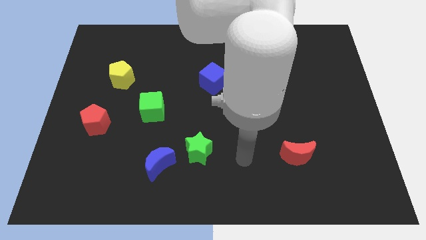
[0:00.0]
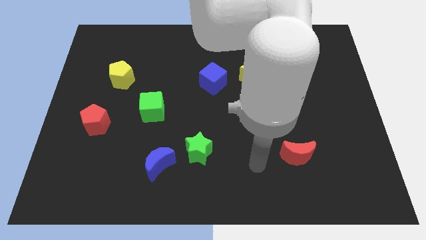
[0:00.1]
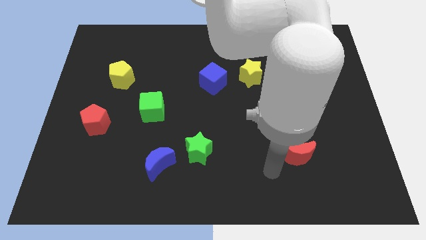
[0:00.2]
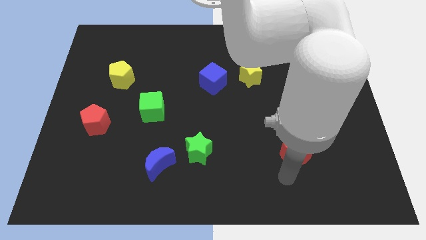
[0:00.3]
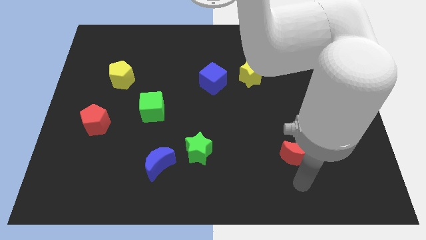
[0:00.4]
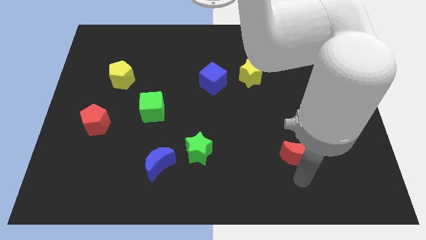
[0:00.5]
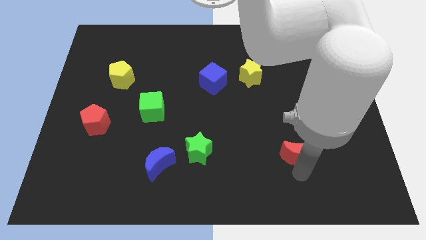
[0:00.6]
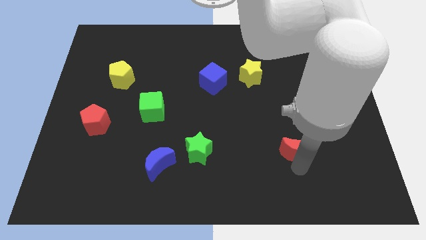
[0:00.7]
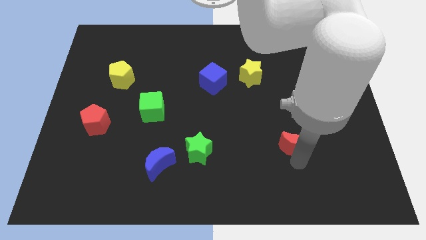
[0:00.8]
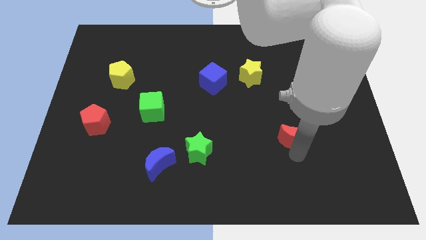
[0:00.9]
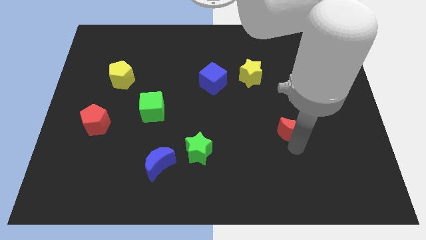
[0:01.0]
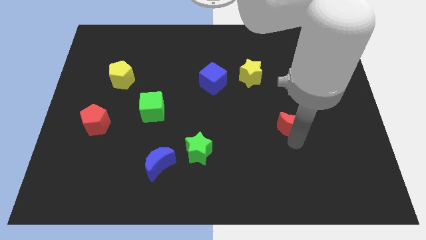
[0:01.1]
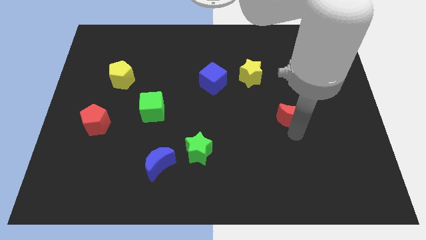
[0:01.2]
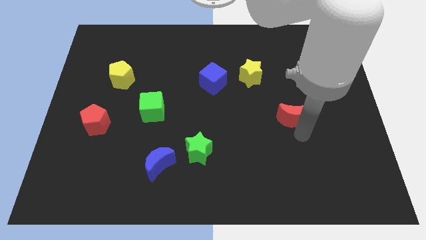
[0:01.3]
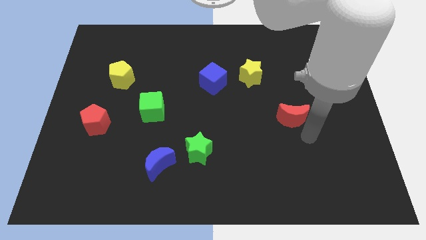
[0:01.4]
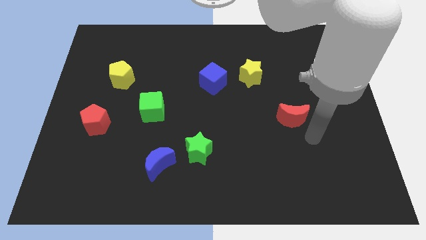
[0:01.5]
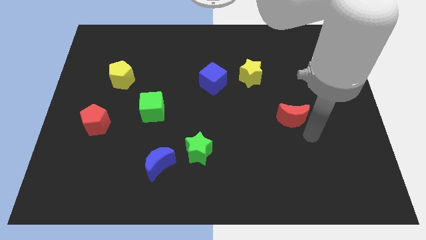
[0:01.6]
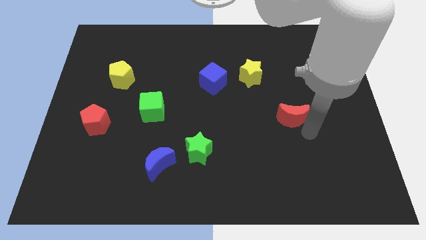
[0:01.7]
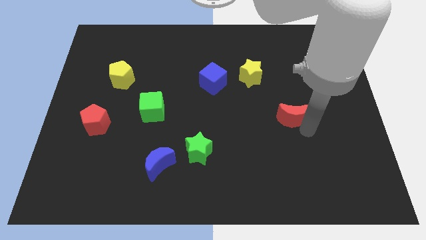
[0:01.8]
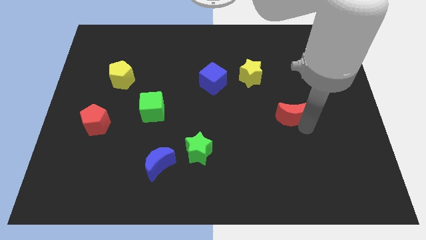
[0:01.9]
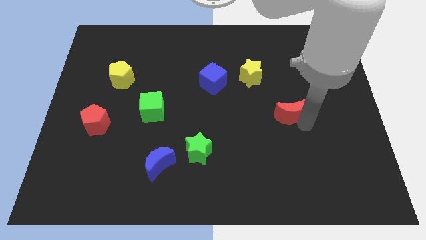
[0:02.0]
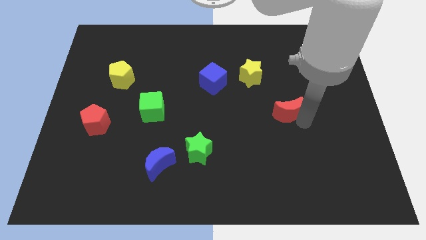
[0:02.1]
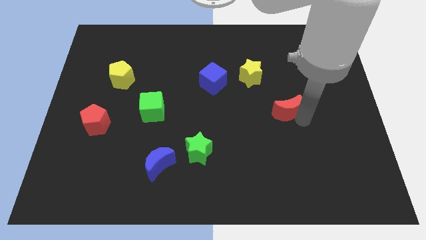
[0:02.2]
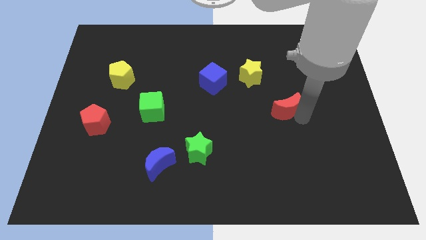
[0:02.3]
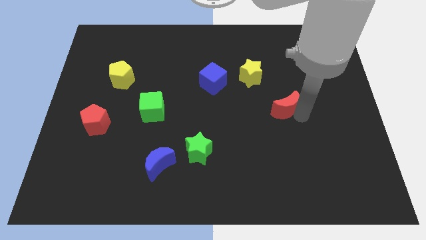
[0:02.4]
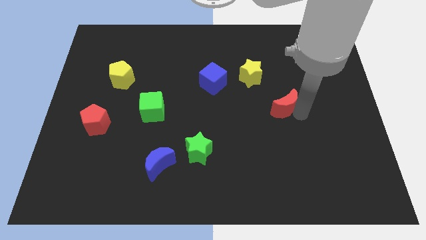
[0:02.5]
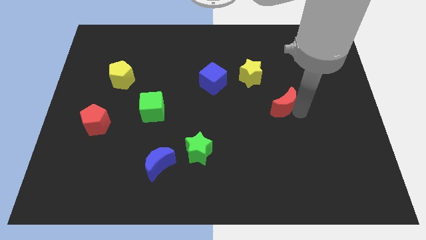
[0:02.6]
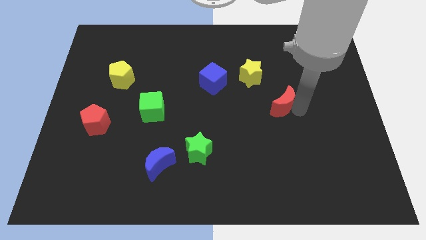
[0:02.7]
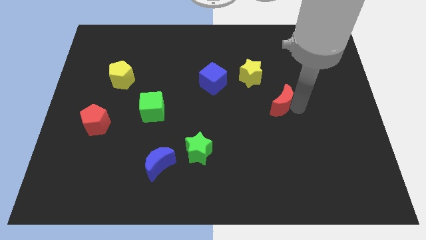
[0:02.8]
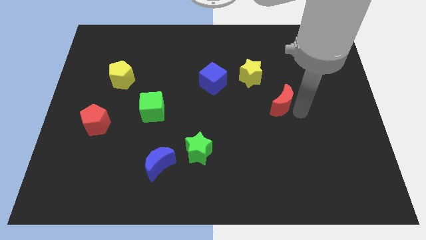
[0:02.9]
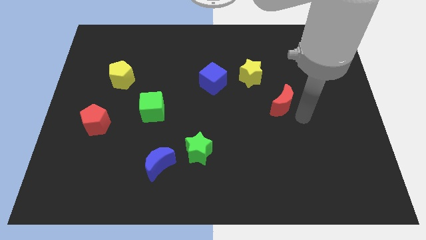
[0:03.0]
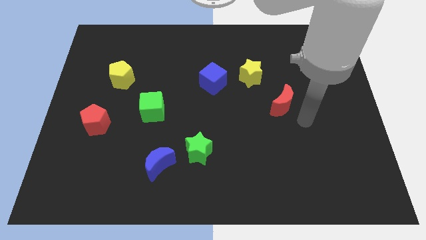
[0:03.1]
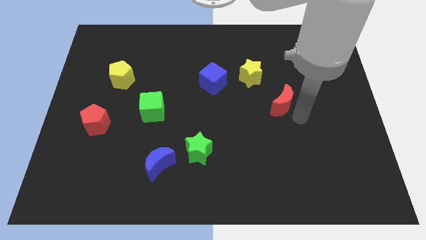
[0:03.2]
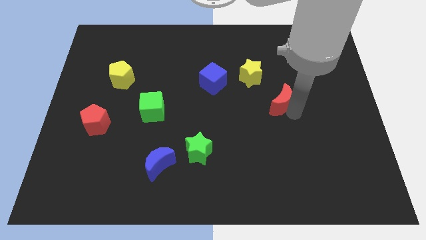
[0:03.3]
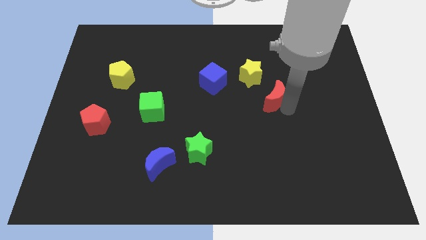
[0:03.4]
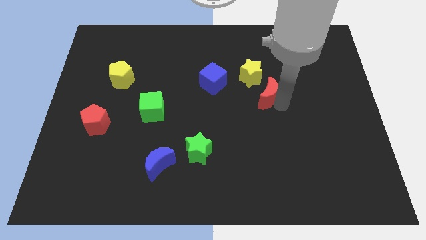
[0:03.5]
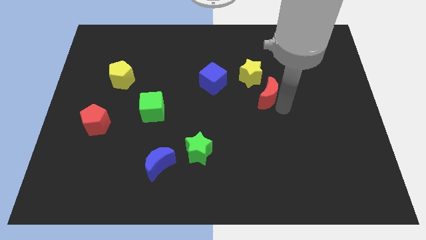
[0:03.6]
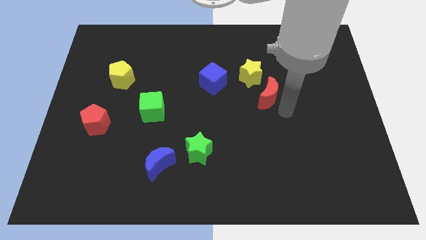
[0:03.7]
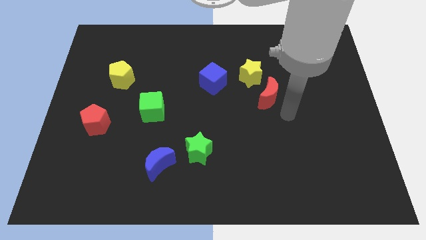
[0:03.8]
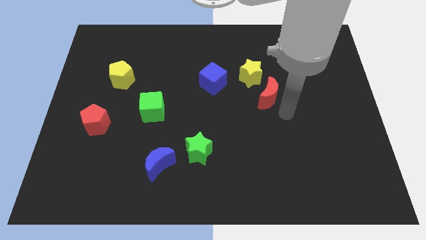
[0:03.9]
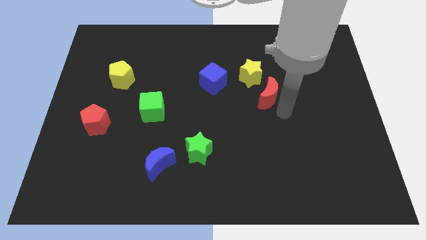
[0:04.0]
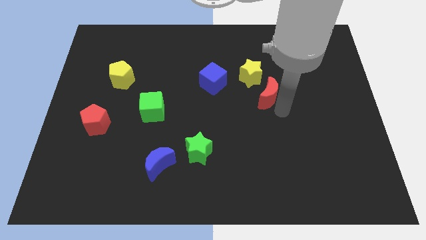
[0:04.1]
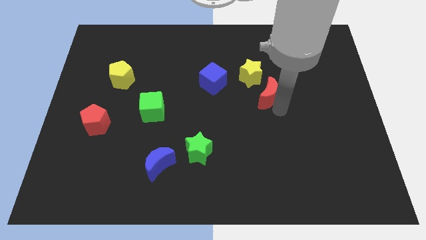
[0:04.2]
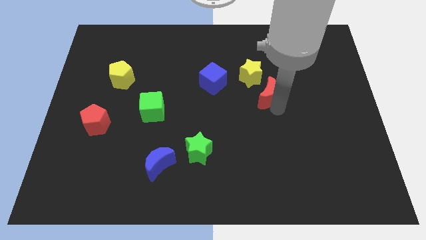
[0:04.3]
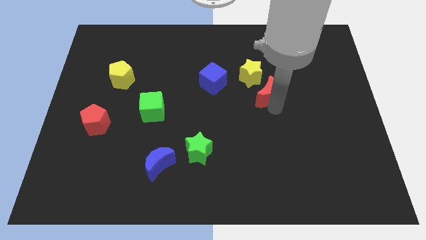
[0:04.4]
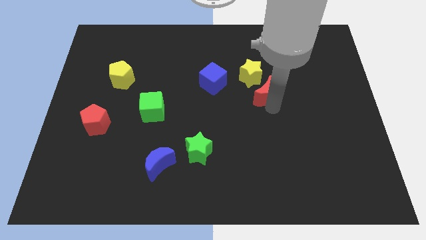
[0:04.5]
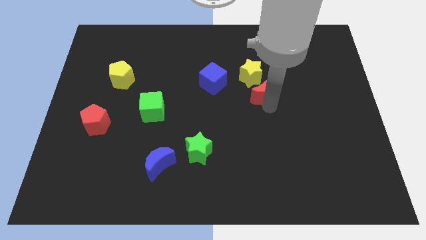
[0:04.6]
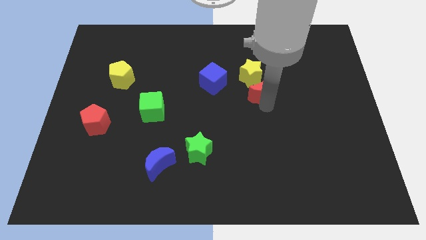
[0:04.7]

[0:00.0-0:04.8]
put the red moon towards the yellow star

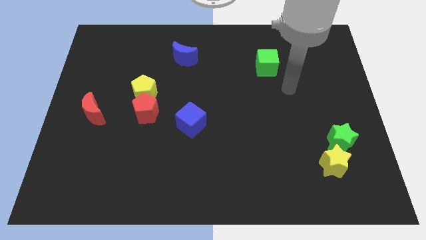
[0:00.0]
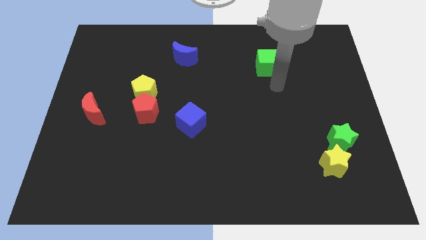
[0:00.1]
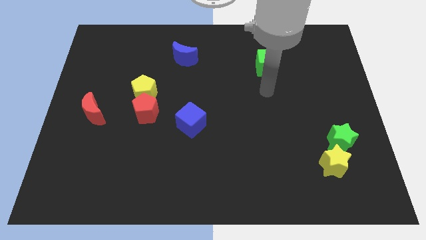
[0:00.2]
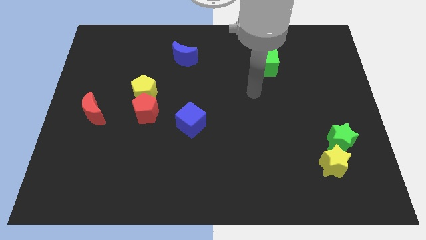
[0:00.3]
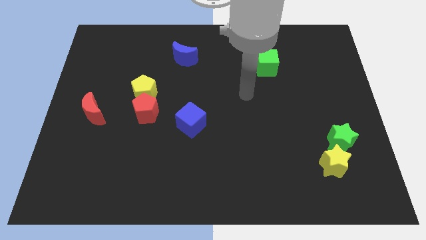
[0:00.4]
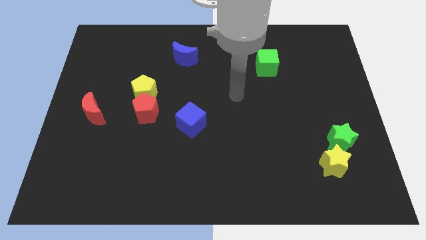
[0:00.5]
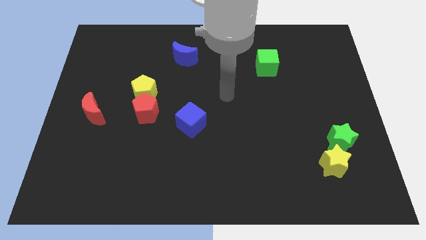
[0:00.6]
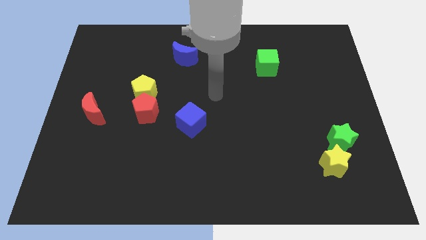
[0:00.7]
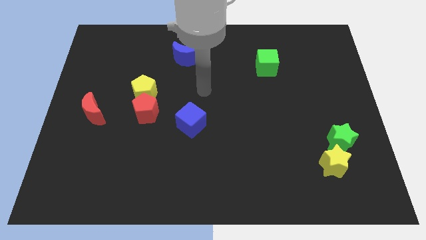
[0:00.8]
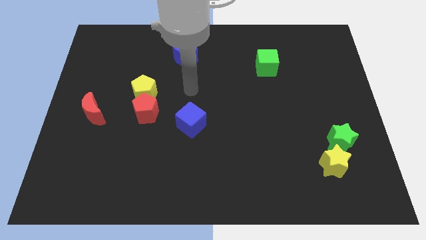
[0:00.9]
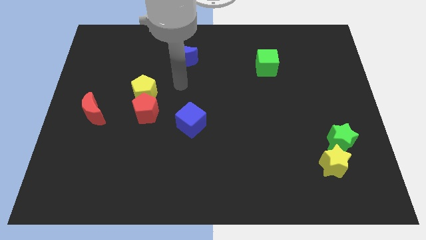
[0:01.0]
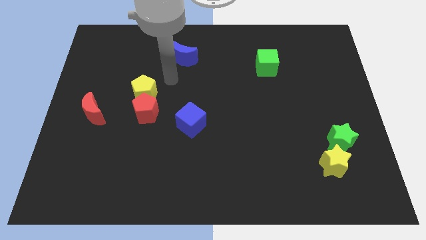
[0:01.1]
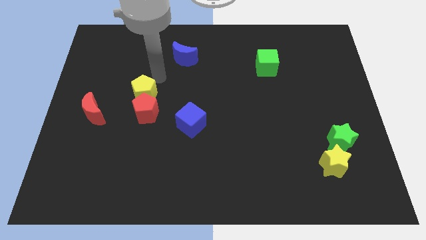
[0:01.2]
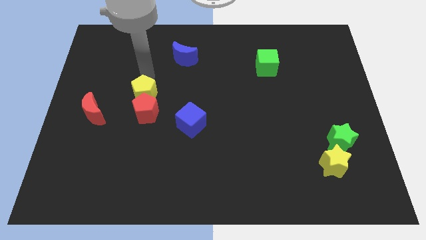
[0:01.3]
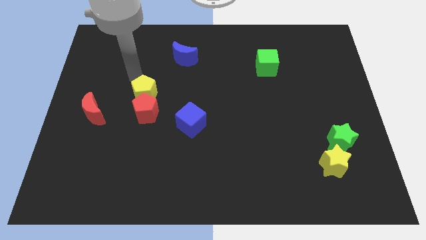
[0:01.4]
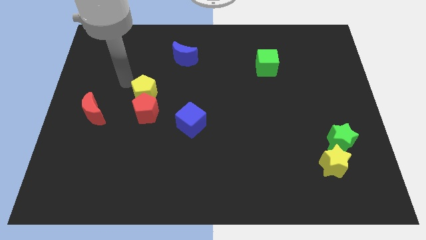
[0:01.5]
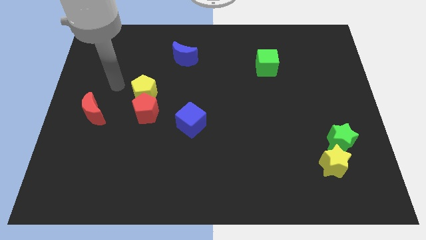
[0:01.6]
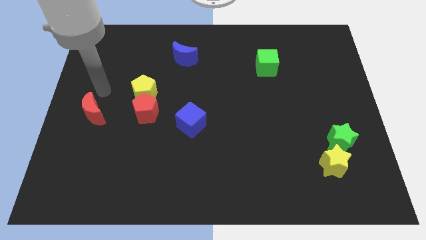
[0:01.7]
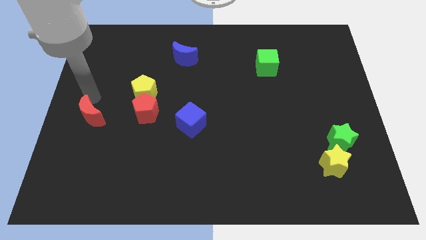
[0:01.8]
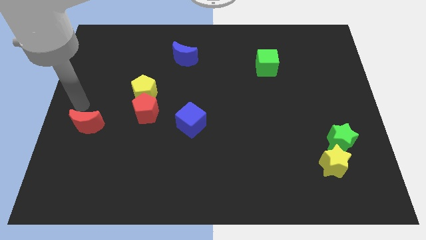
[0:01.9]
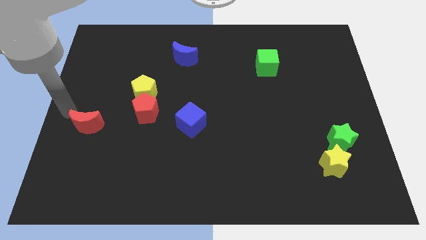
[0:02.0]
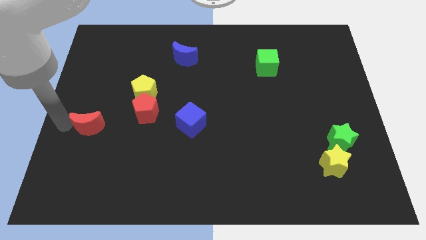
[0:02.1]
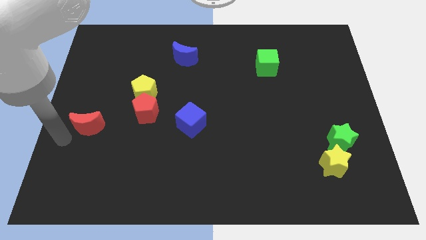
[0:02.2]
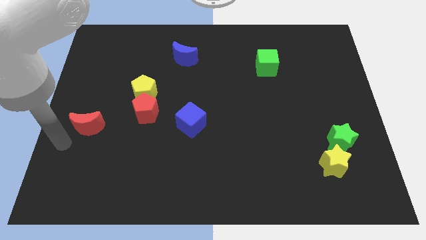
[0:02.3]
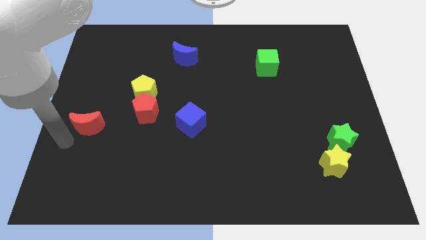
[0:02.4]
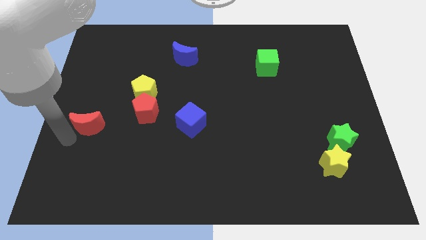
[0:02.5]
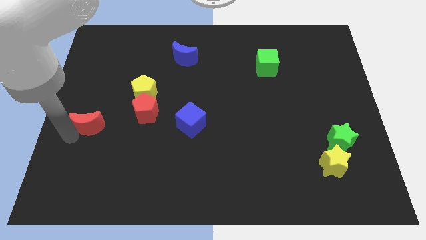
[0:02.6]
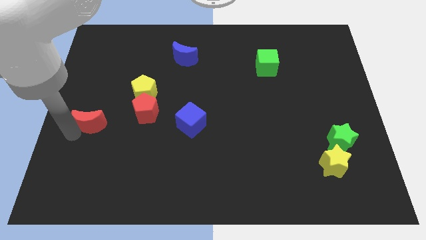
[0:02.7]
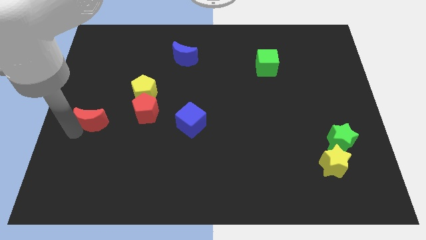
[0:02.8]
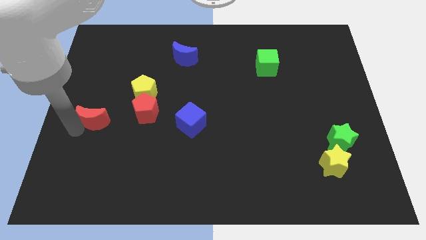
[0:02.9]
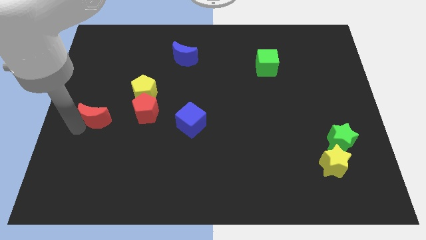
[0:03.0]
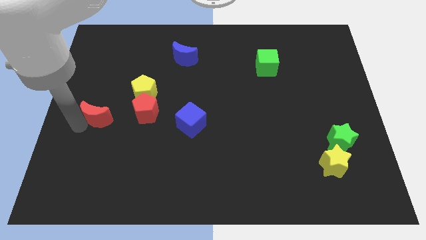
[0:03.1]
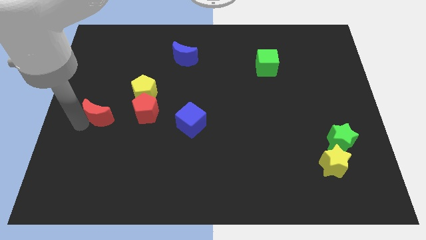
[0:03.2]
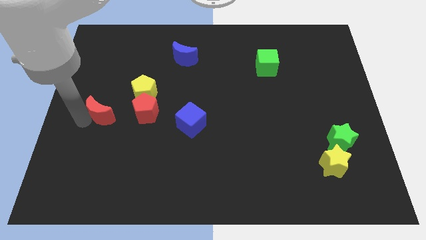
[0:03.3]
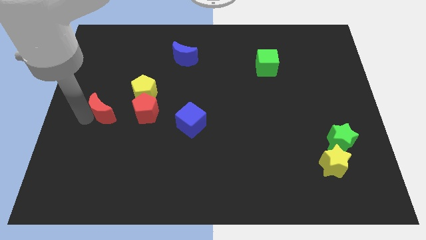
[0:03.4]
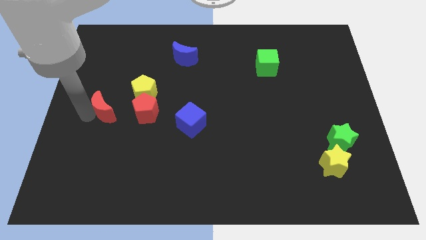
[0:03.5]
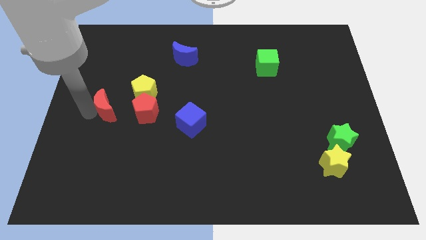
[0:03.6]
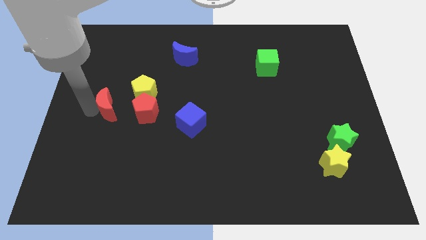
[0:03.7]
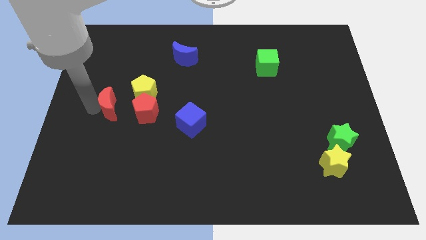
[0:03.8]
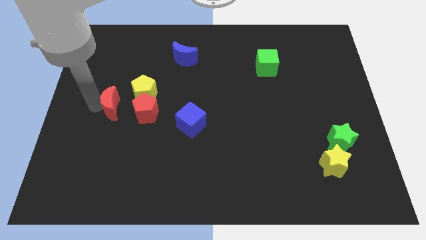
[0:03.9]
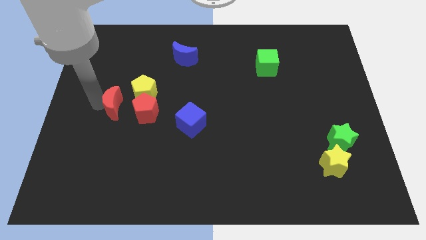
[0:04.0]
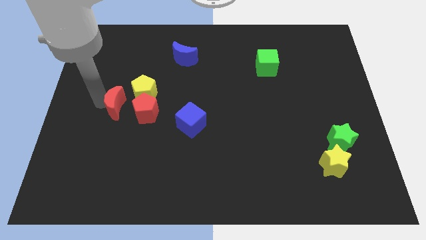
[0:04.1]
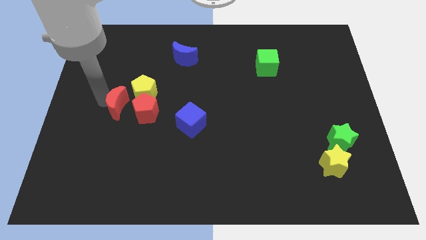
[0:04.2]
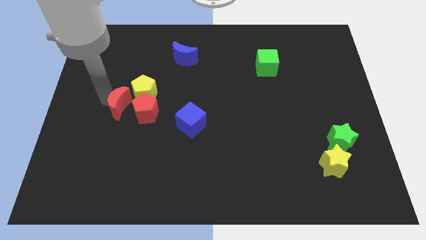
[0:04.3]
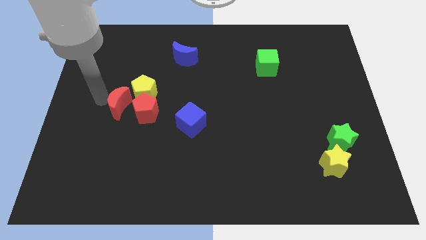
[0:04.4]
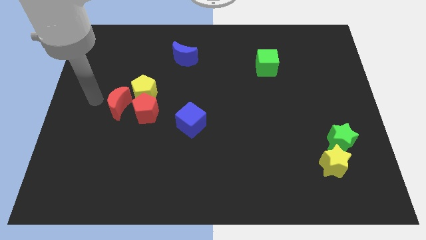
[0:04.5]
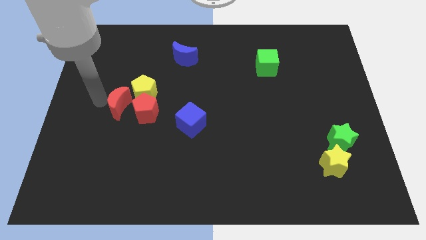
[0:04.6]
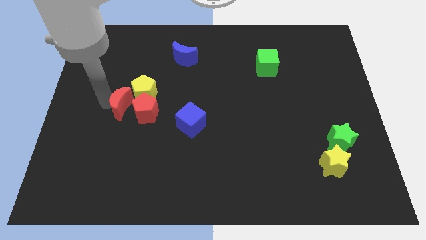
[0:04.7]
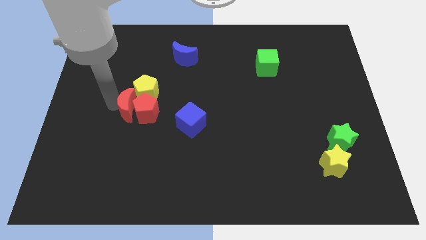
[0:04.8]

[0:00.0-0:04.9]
slide the red moon to the red pentagon
